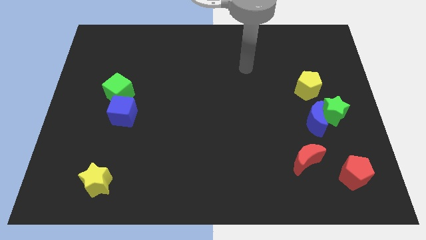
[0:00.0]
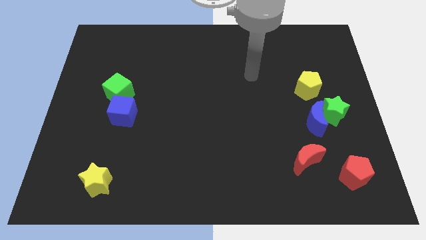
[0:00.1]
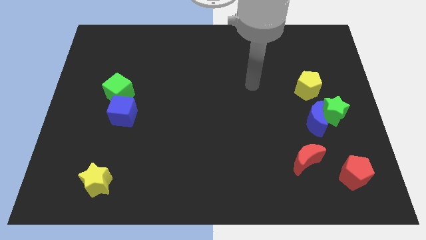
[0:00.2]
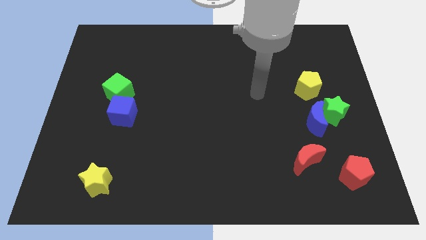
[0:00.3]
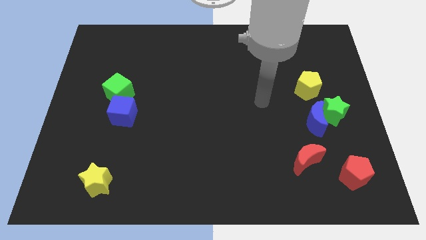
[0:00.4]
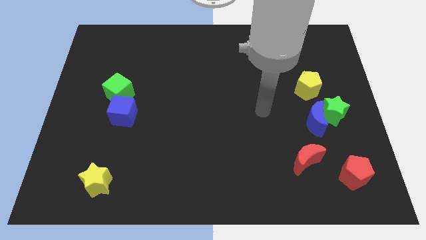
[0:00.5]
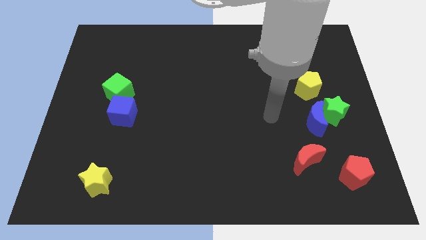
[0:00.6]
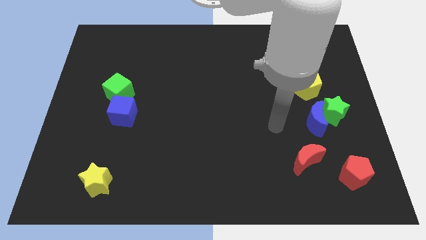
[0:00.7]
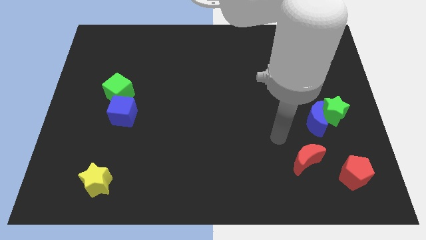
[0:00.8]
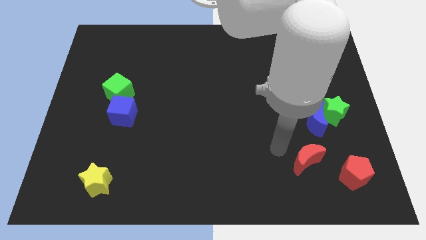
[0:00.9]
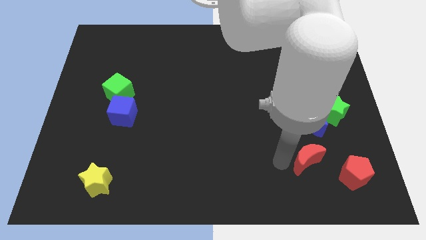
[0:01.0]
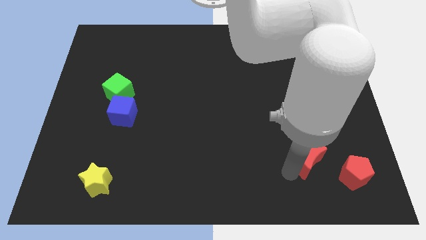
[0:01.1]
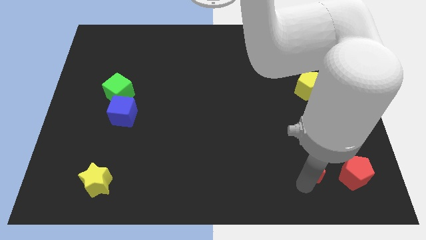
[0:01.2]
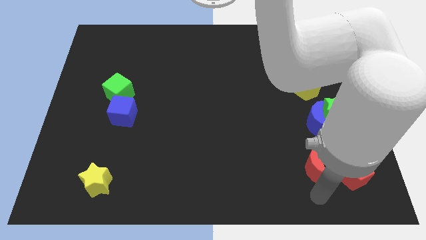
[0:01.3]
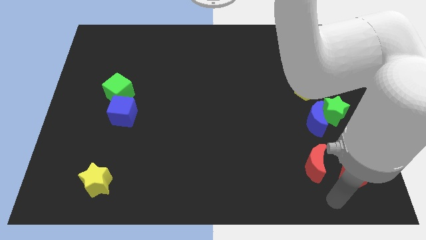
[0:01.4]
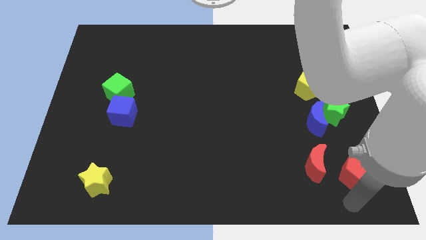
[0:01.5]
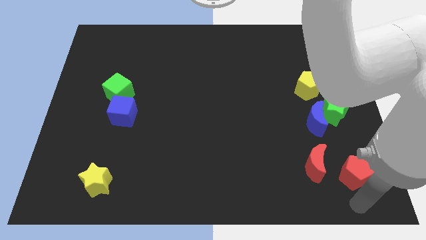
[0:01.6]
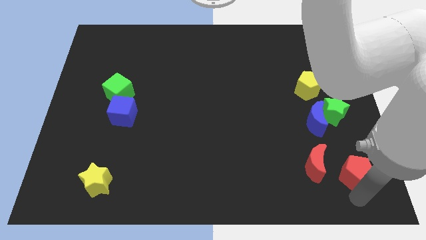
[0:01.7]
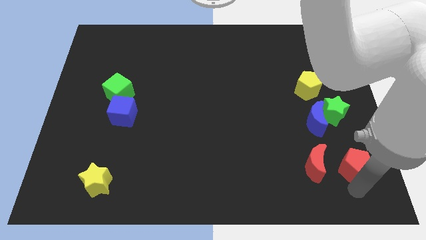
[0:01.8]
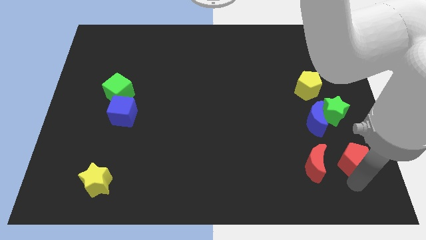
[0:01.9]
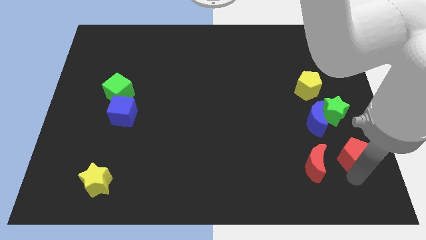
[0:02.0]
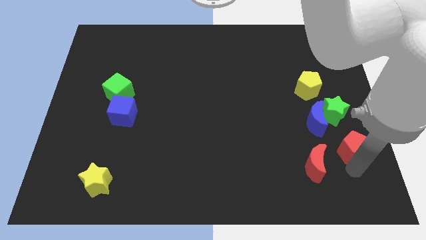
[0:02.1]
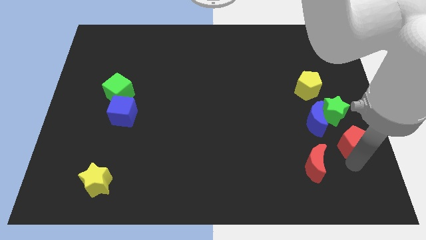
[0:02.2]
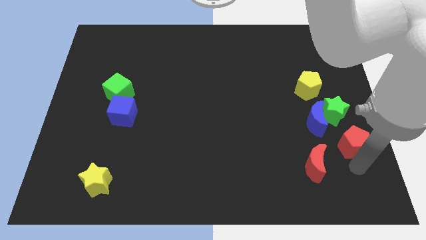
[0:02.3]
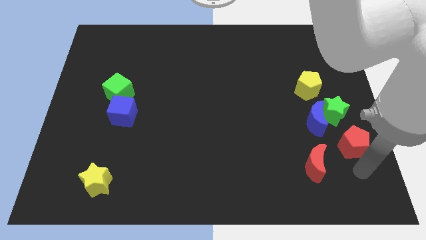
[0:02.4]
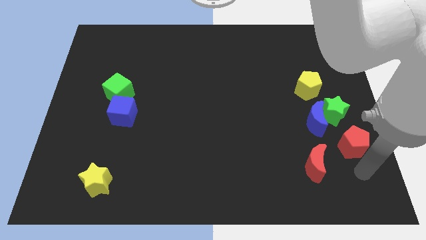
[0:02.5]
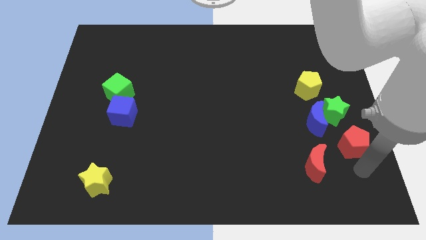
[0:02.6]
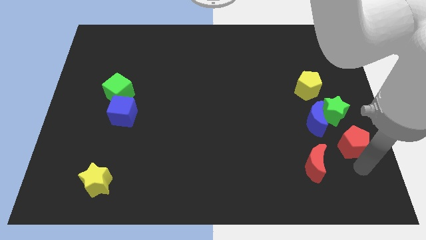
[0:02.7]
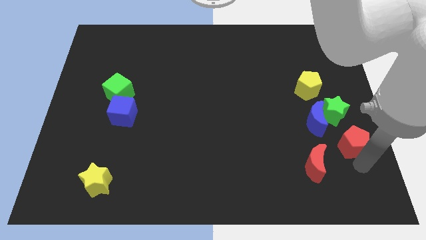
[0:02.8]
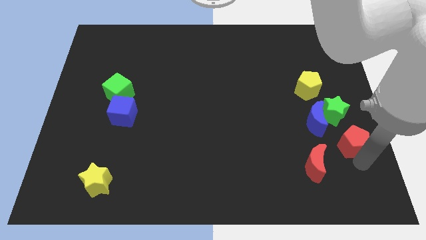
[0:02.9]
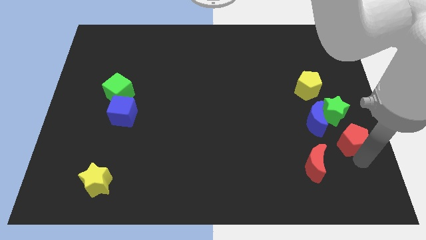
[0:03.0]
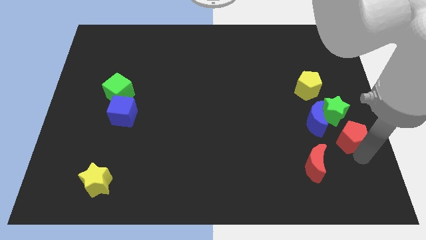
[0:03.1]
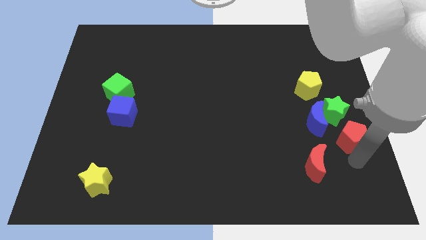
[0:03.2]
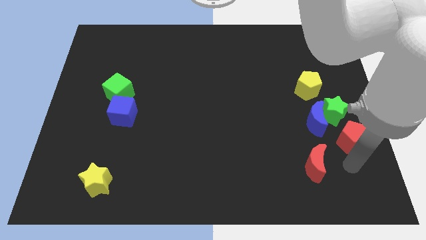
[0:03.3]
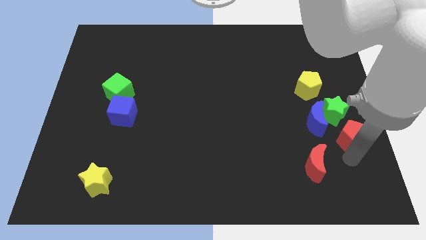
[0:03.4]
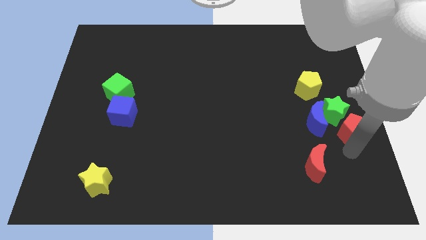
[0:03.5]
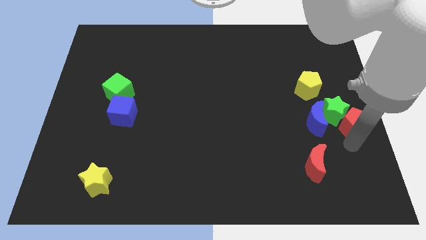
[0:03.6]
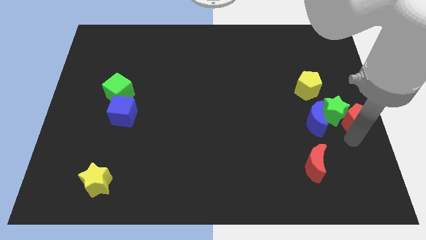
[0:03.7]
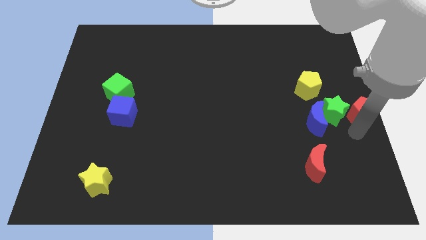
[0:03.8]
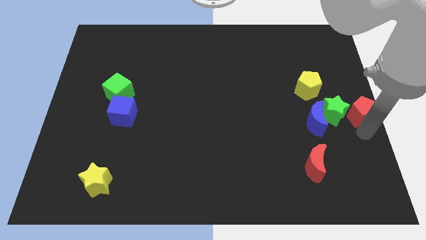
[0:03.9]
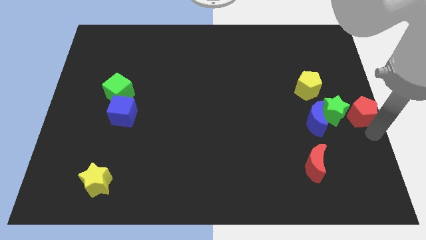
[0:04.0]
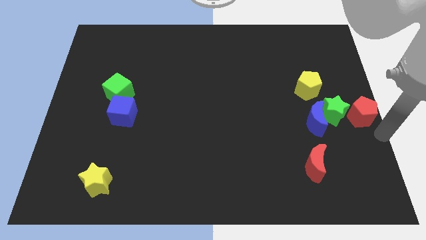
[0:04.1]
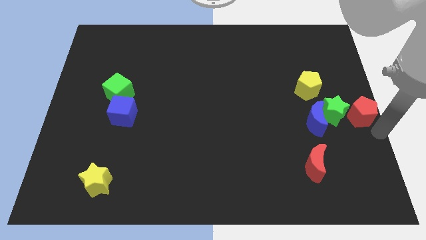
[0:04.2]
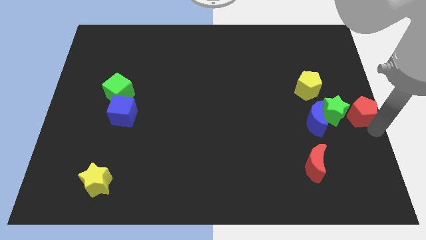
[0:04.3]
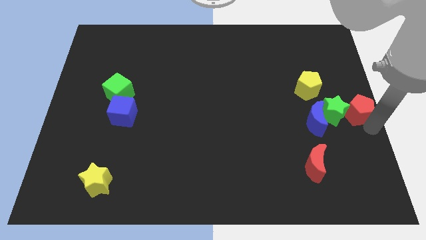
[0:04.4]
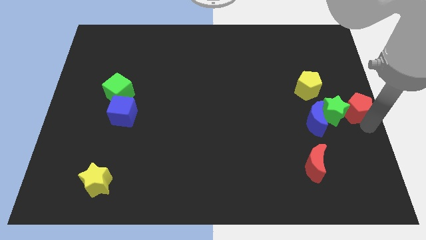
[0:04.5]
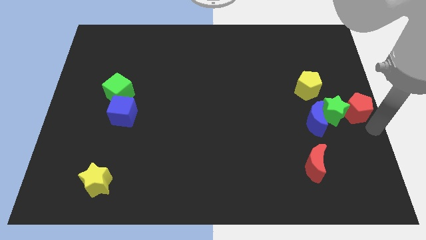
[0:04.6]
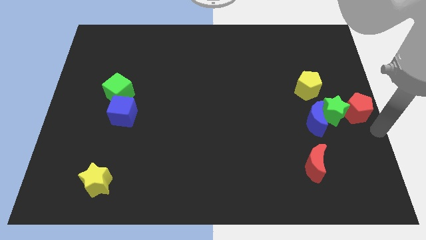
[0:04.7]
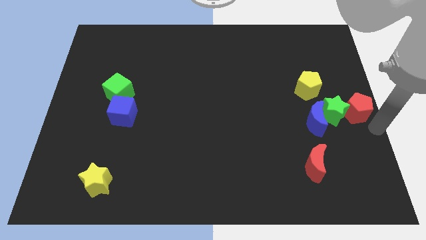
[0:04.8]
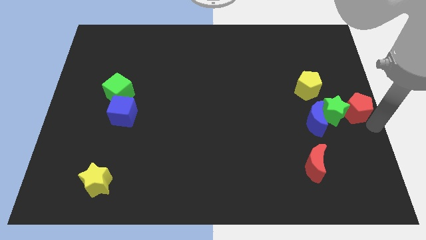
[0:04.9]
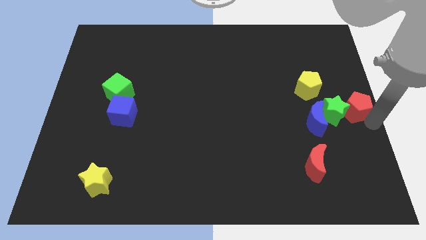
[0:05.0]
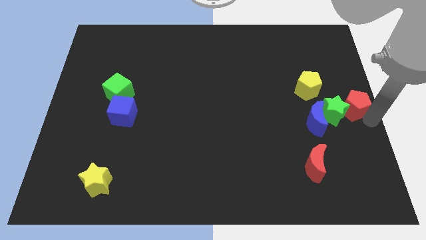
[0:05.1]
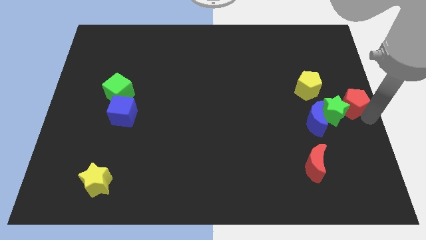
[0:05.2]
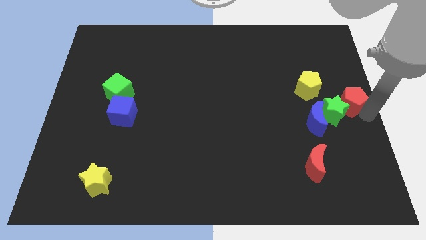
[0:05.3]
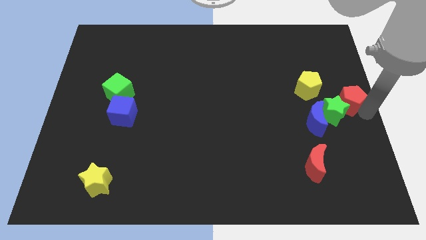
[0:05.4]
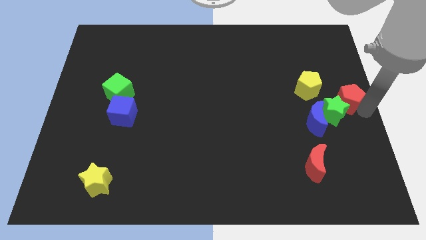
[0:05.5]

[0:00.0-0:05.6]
put the red pentagon to the top side of the green star

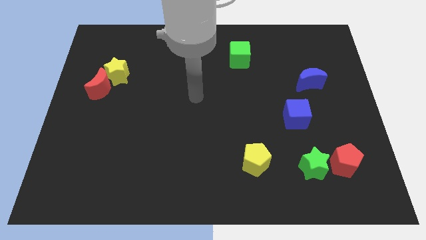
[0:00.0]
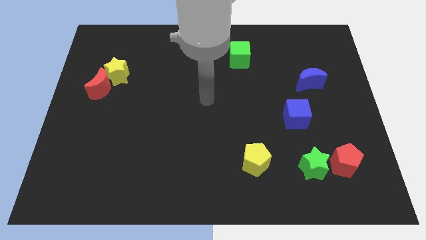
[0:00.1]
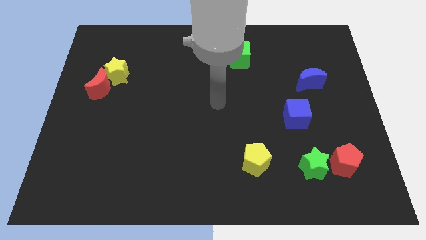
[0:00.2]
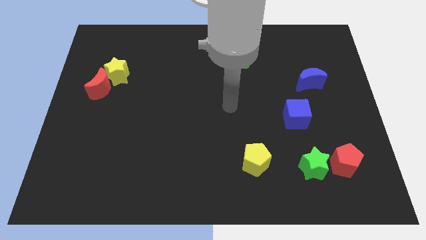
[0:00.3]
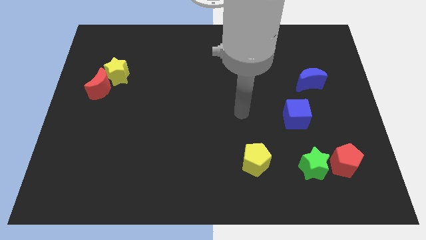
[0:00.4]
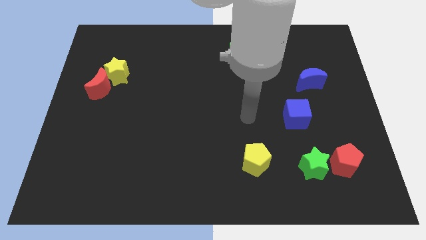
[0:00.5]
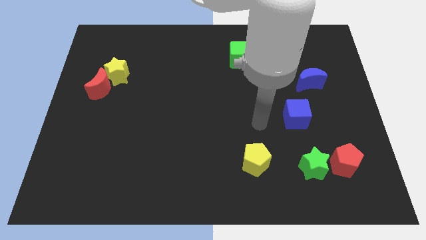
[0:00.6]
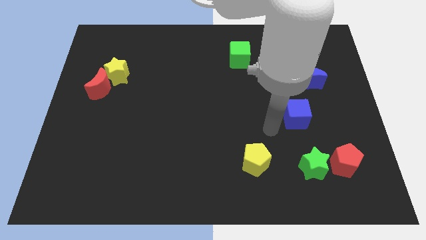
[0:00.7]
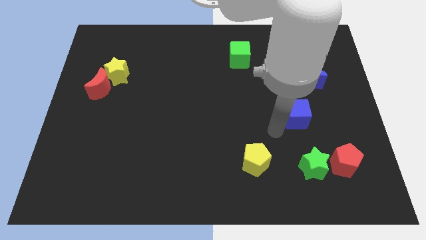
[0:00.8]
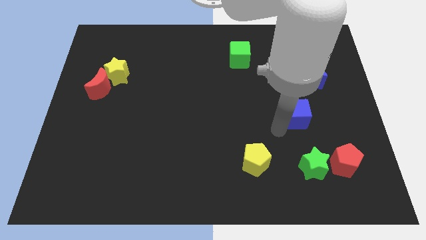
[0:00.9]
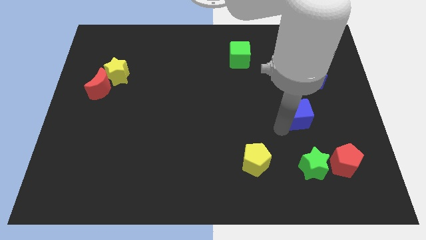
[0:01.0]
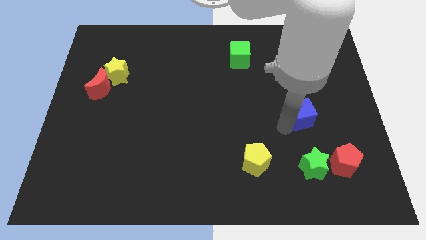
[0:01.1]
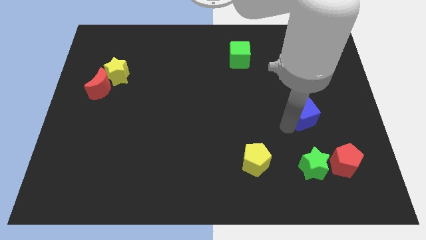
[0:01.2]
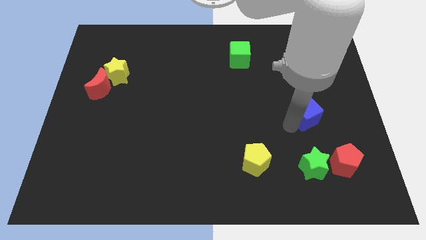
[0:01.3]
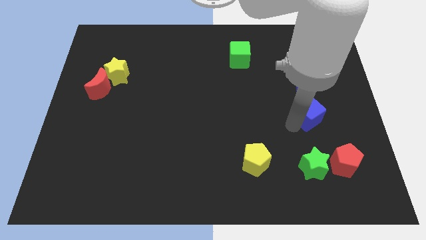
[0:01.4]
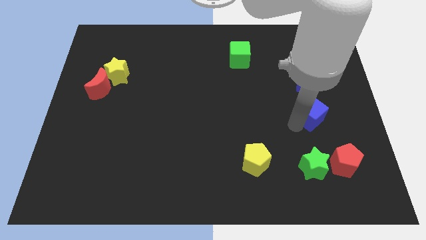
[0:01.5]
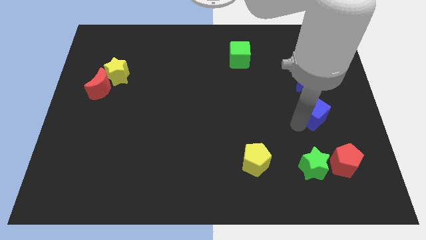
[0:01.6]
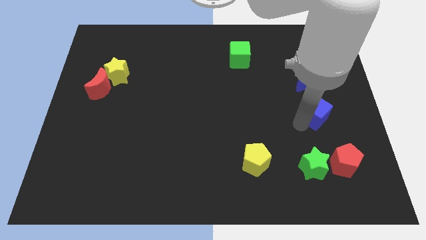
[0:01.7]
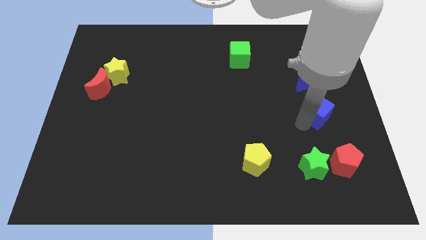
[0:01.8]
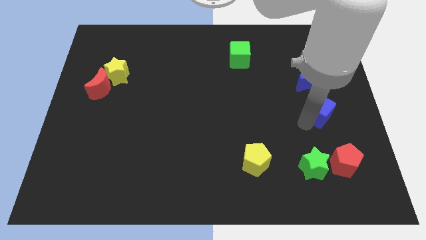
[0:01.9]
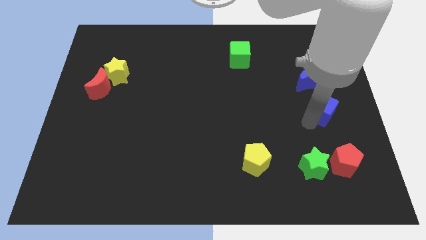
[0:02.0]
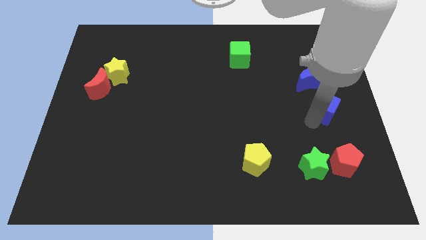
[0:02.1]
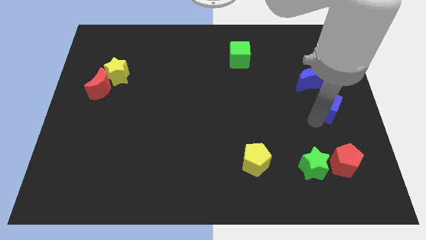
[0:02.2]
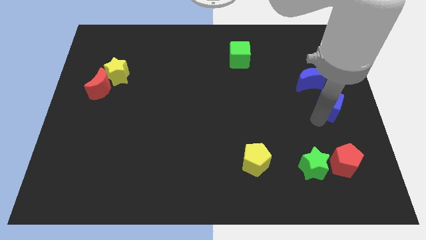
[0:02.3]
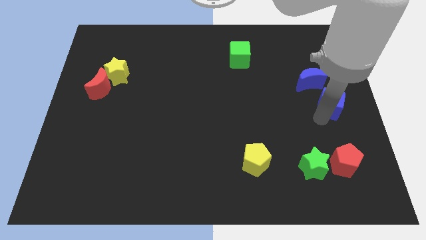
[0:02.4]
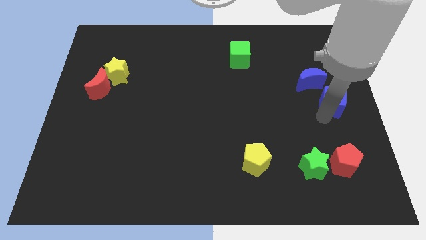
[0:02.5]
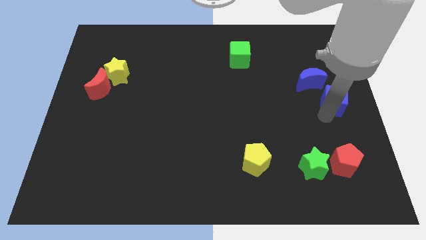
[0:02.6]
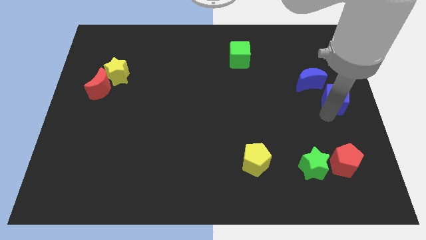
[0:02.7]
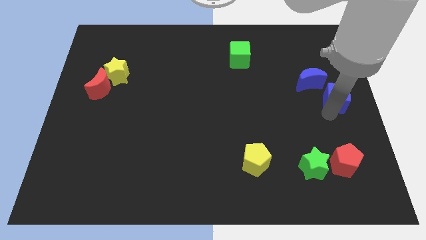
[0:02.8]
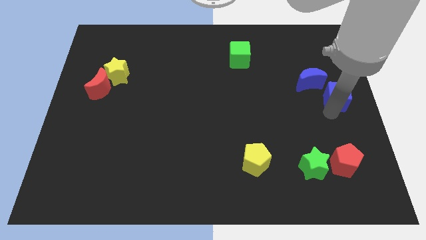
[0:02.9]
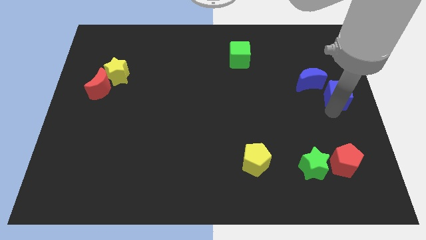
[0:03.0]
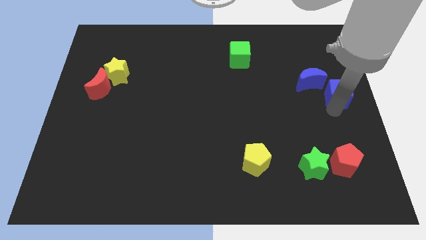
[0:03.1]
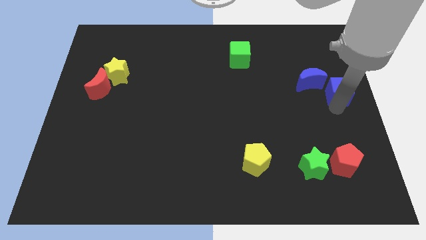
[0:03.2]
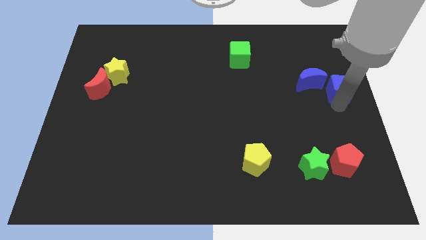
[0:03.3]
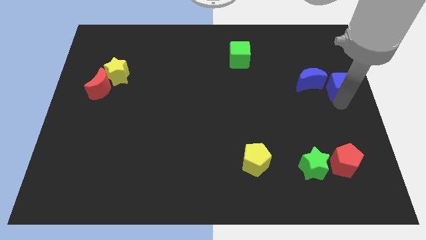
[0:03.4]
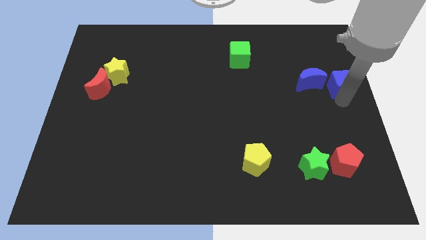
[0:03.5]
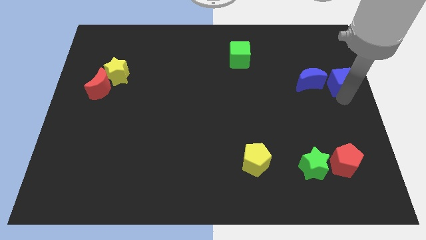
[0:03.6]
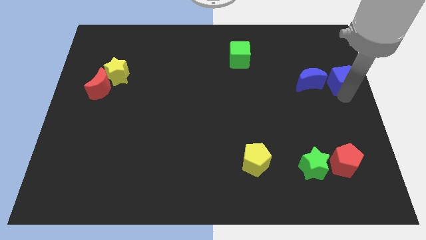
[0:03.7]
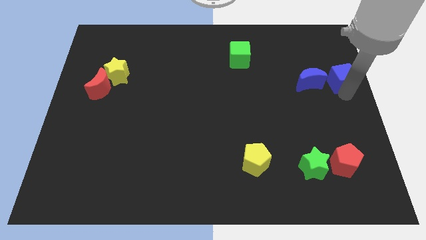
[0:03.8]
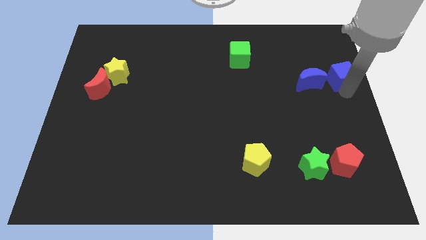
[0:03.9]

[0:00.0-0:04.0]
slide the blue cube to the top right of the blue moon
